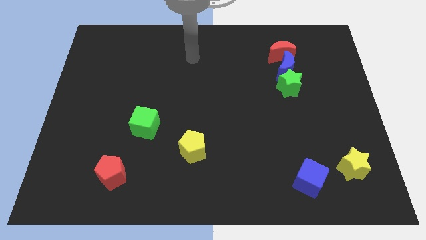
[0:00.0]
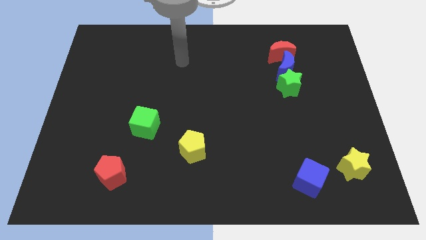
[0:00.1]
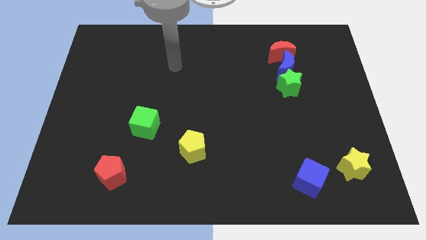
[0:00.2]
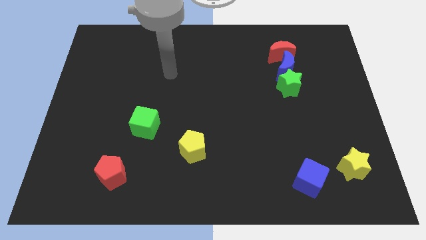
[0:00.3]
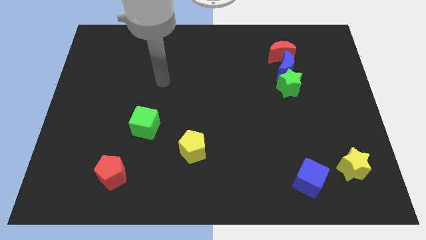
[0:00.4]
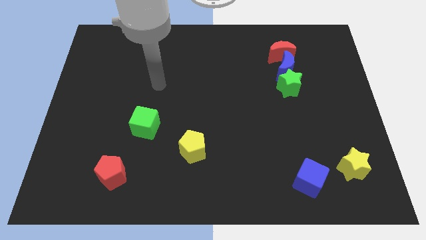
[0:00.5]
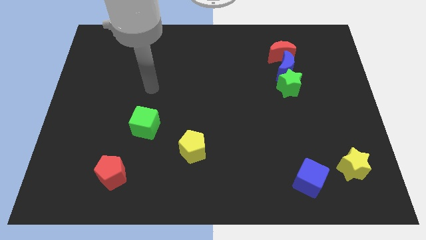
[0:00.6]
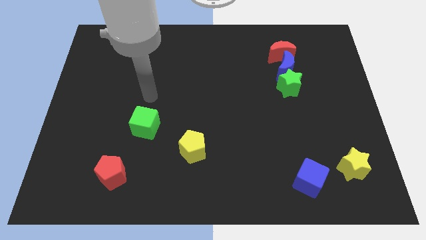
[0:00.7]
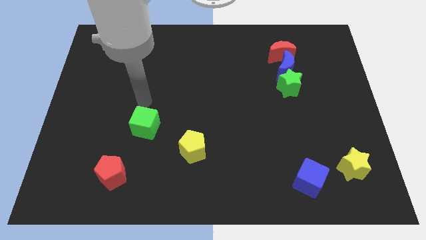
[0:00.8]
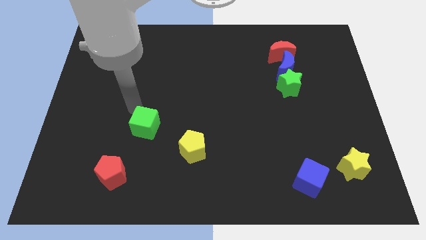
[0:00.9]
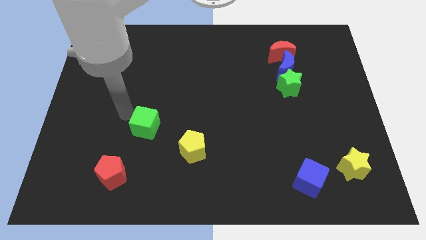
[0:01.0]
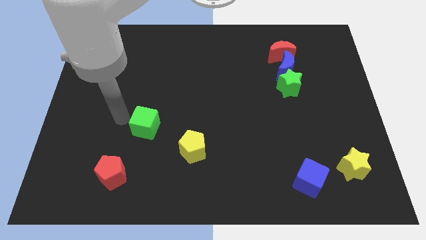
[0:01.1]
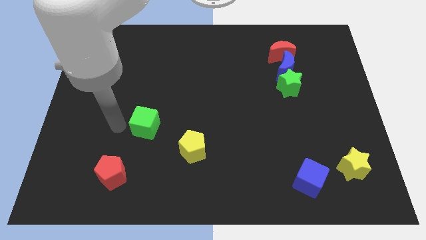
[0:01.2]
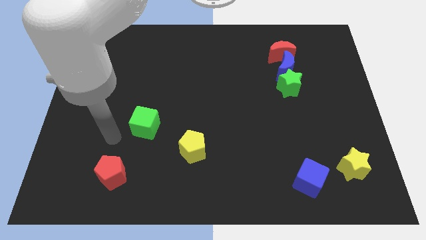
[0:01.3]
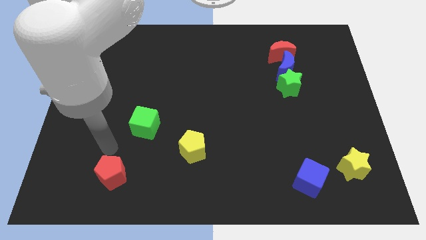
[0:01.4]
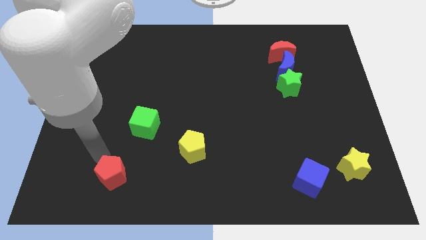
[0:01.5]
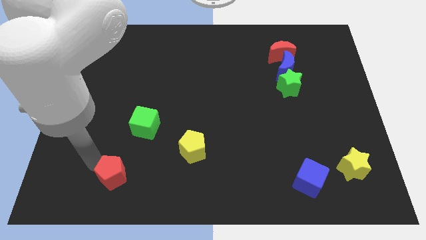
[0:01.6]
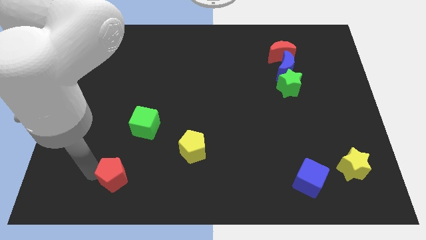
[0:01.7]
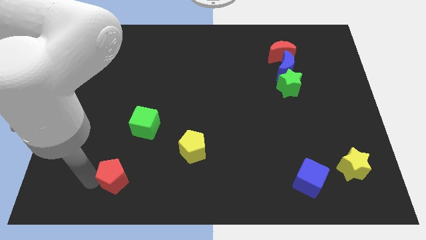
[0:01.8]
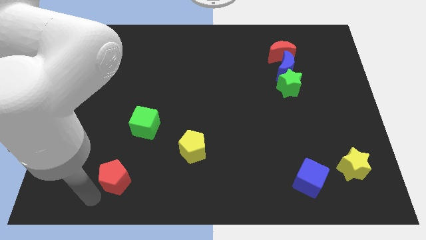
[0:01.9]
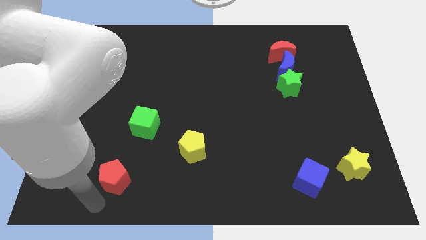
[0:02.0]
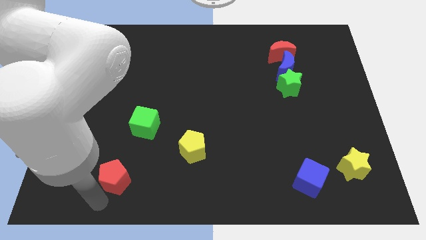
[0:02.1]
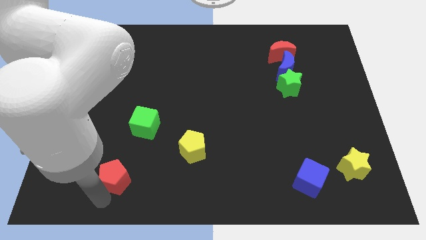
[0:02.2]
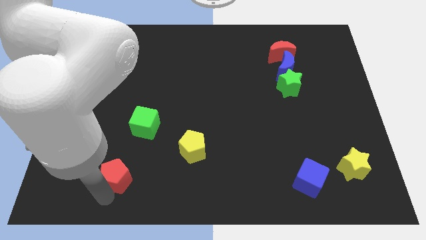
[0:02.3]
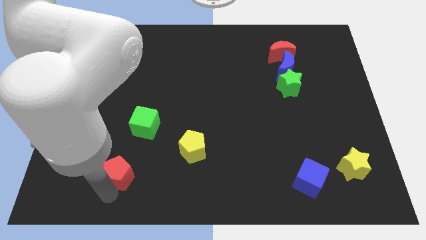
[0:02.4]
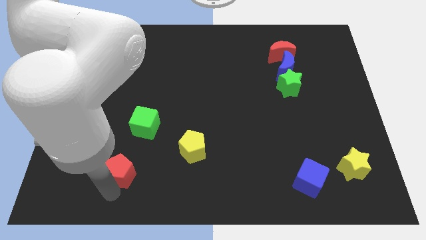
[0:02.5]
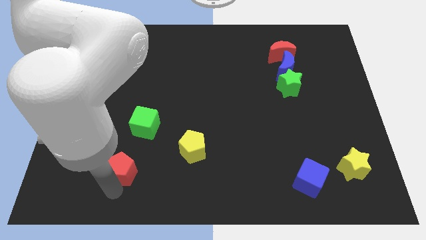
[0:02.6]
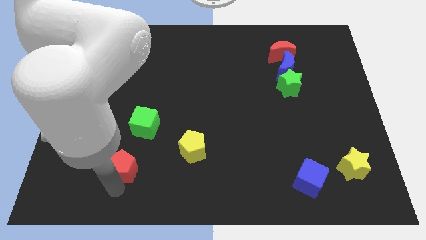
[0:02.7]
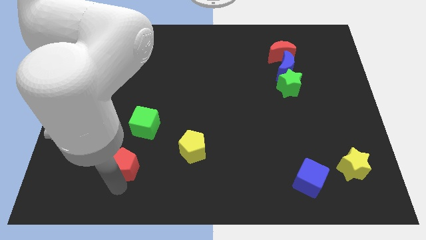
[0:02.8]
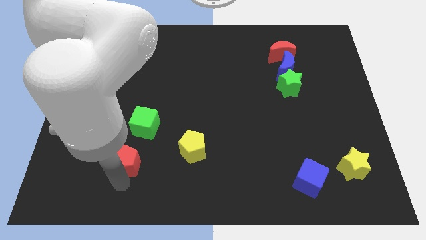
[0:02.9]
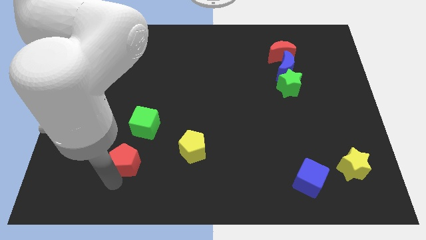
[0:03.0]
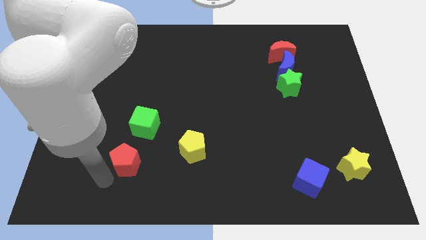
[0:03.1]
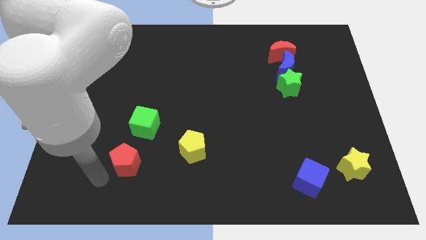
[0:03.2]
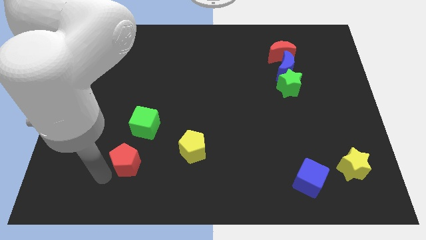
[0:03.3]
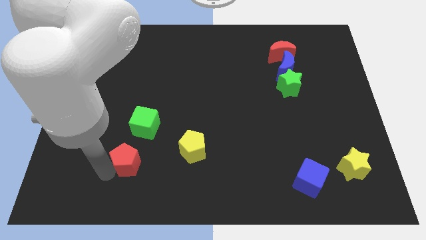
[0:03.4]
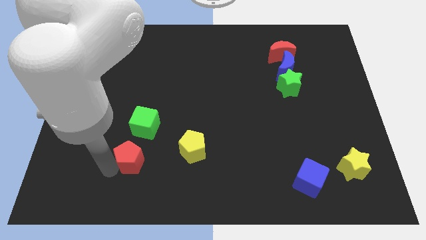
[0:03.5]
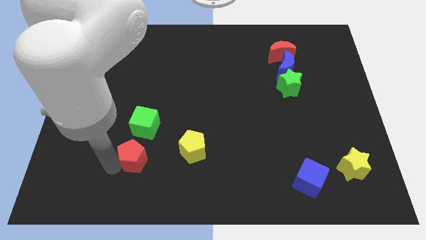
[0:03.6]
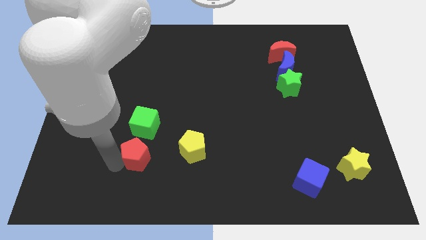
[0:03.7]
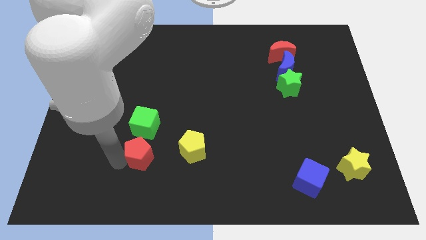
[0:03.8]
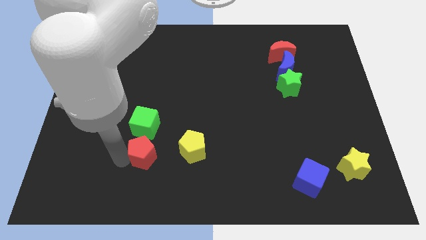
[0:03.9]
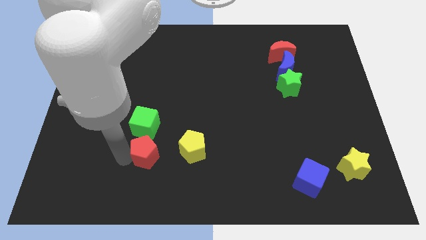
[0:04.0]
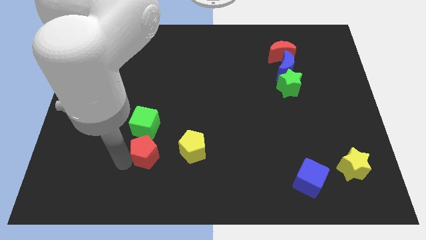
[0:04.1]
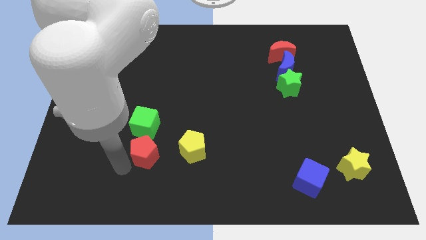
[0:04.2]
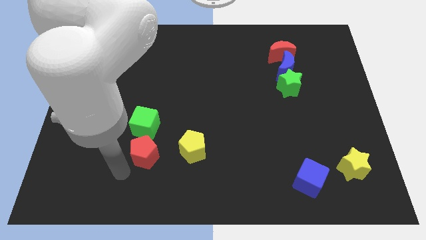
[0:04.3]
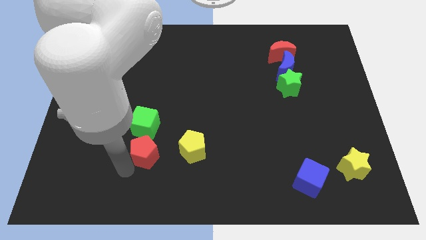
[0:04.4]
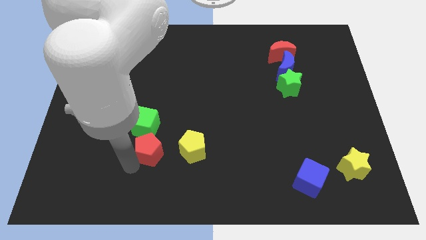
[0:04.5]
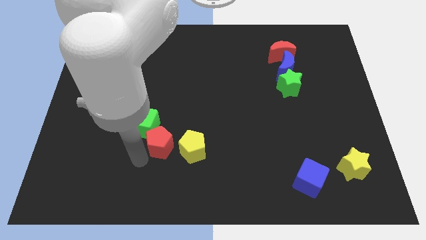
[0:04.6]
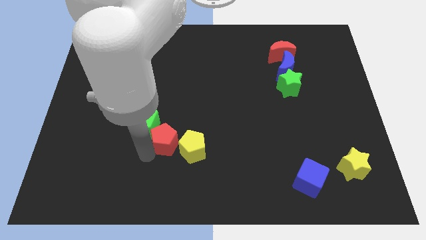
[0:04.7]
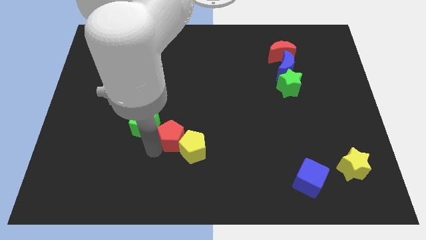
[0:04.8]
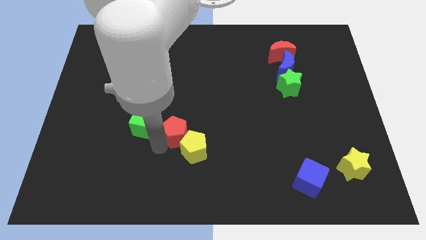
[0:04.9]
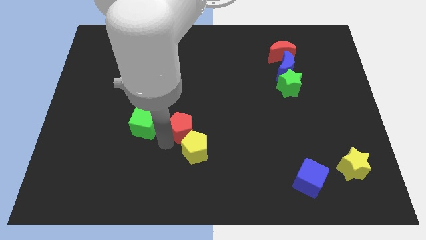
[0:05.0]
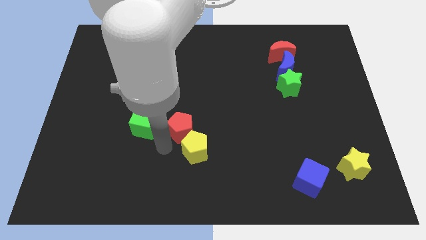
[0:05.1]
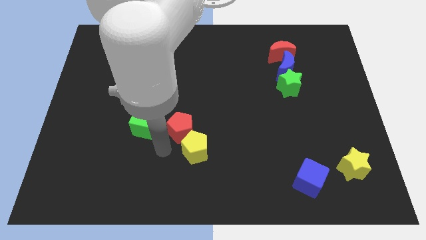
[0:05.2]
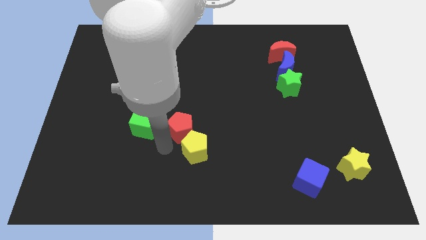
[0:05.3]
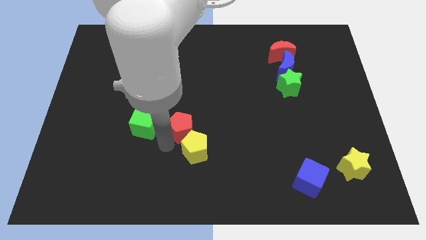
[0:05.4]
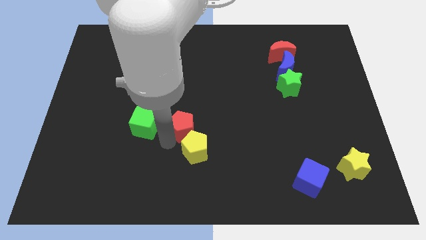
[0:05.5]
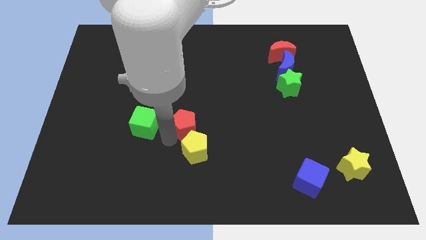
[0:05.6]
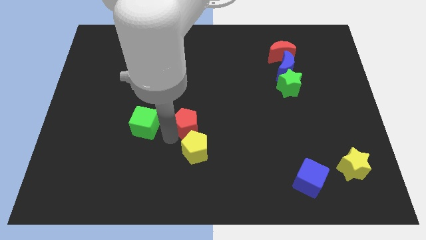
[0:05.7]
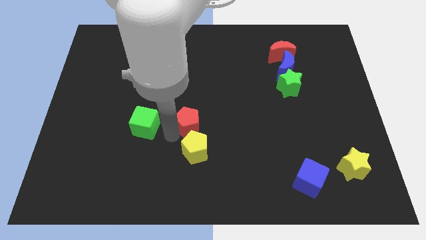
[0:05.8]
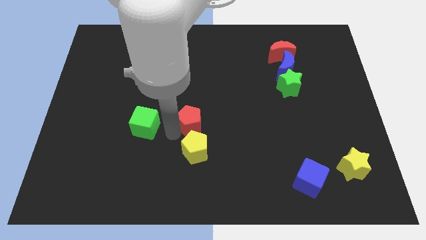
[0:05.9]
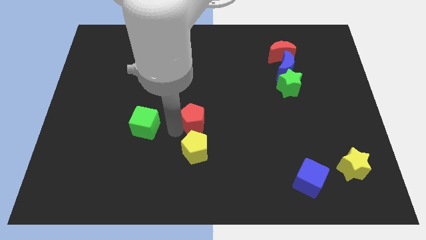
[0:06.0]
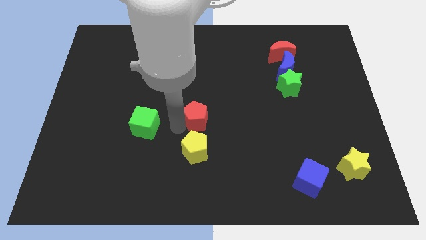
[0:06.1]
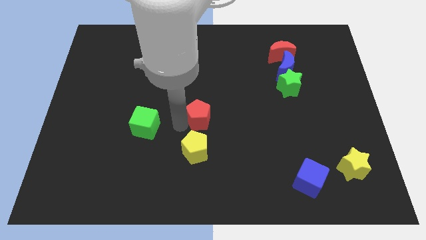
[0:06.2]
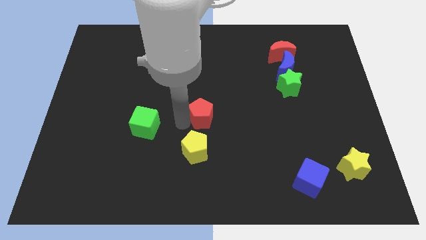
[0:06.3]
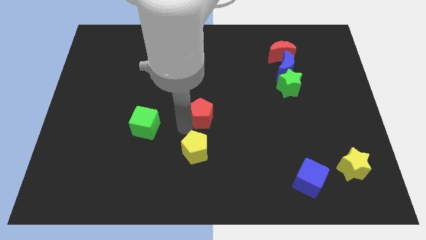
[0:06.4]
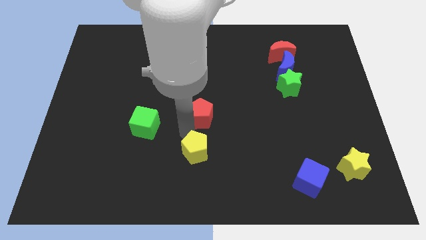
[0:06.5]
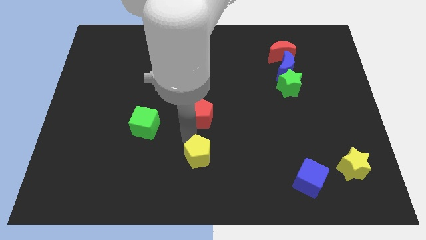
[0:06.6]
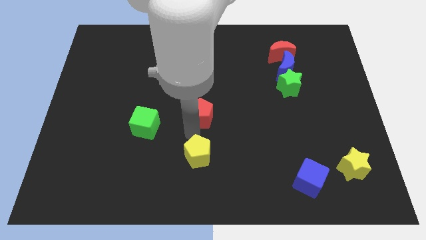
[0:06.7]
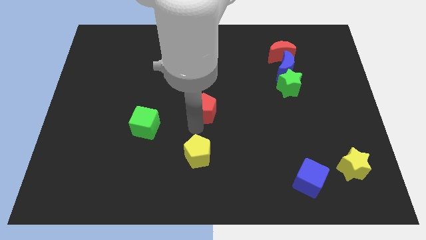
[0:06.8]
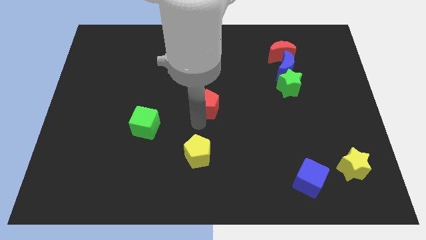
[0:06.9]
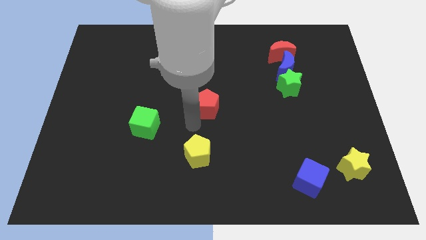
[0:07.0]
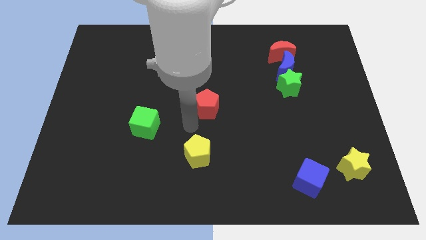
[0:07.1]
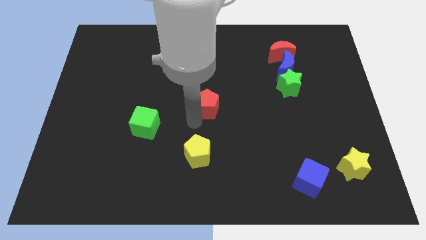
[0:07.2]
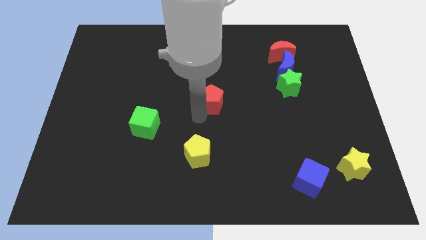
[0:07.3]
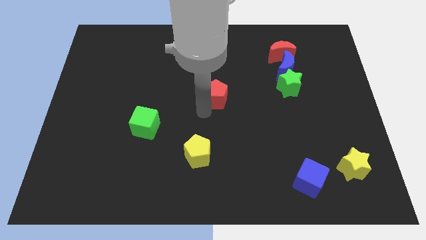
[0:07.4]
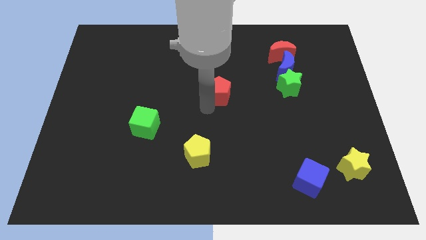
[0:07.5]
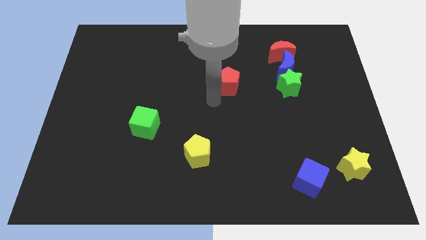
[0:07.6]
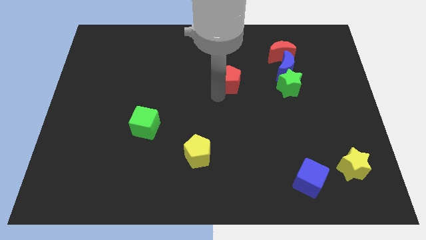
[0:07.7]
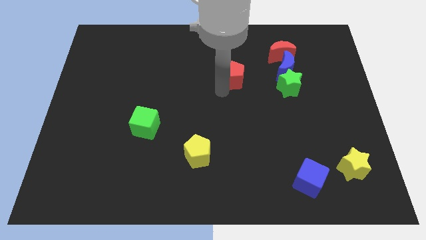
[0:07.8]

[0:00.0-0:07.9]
push the red pentagon just left of the blue moon
